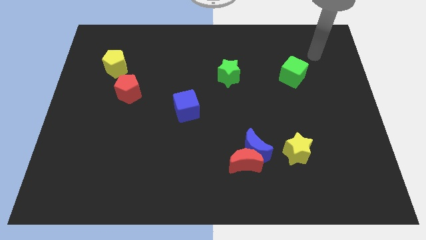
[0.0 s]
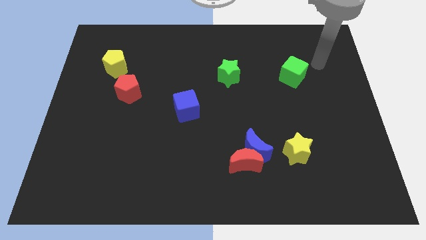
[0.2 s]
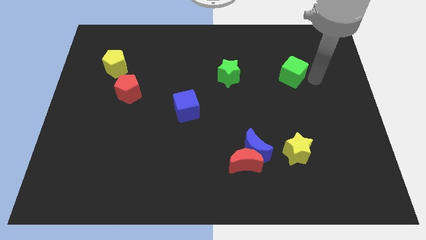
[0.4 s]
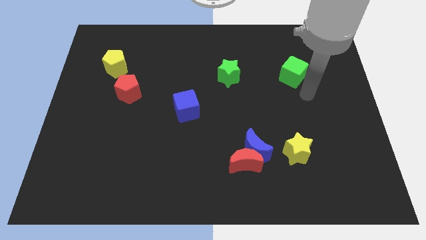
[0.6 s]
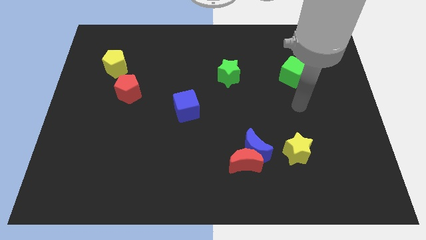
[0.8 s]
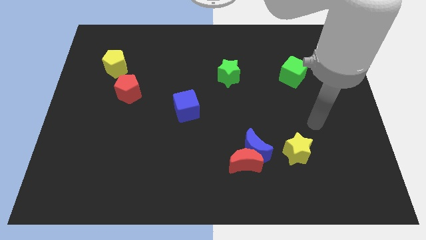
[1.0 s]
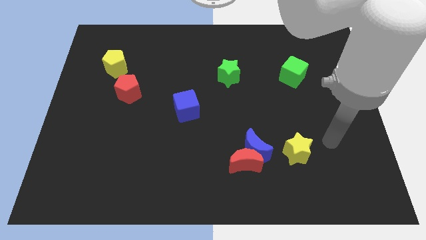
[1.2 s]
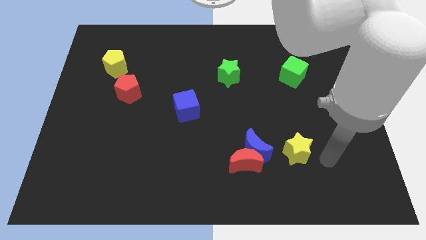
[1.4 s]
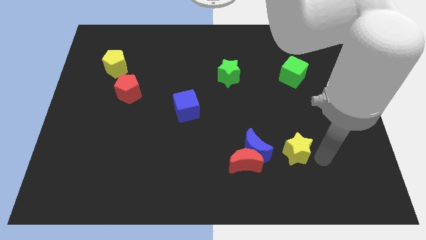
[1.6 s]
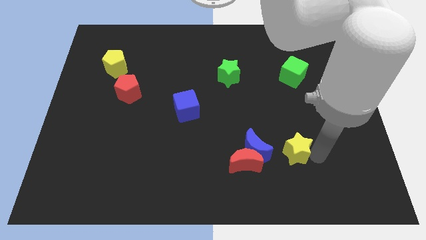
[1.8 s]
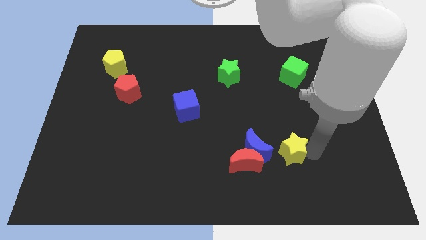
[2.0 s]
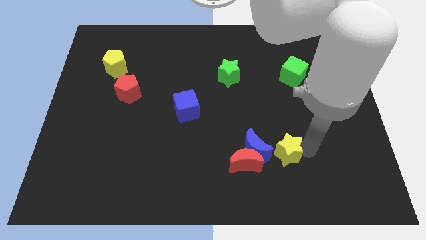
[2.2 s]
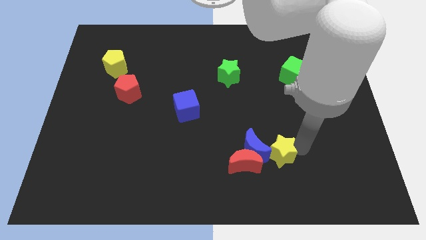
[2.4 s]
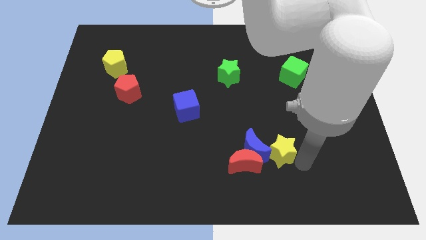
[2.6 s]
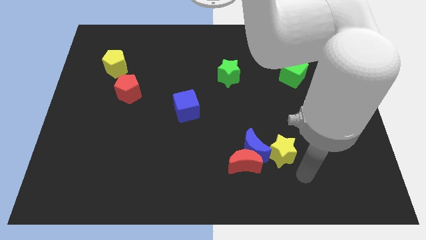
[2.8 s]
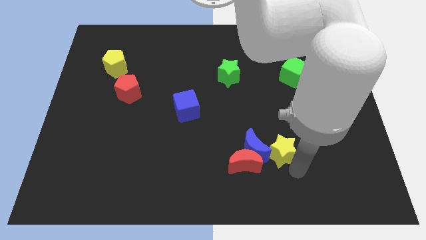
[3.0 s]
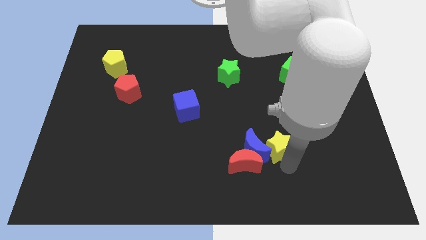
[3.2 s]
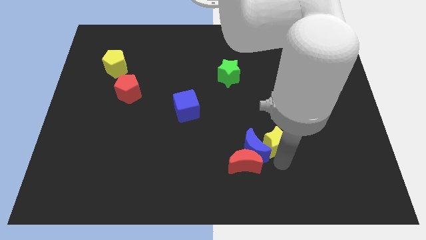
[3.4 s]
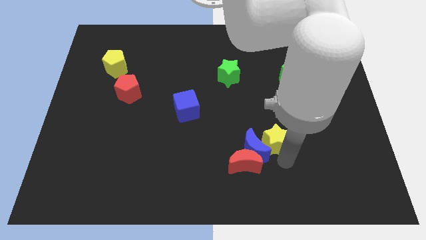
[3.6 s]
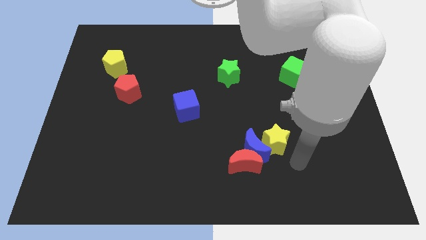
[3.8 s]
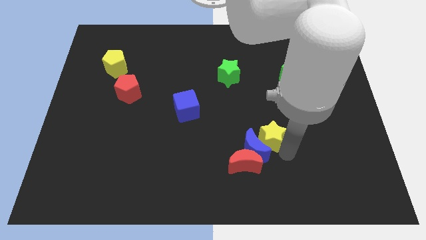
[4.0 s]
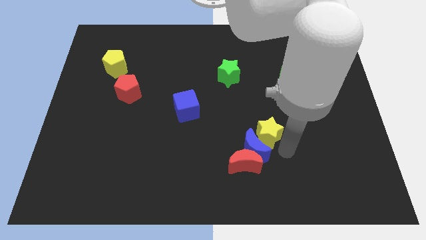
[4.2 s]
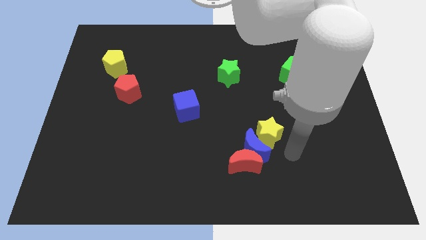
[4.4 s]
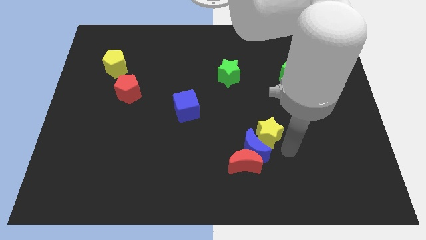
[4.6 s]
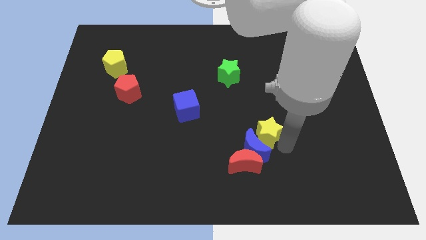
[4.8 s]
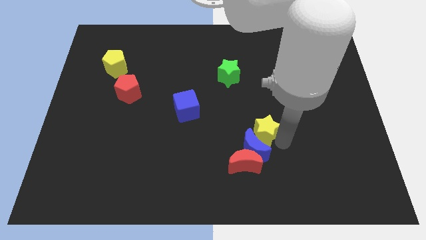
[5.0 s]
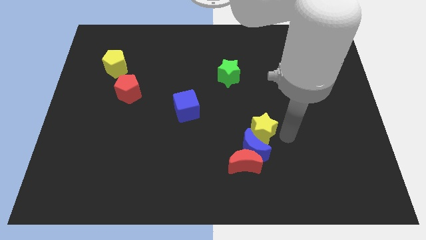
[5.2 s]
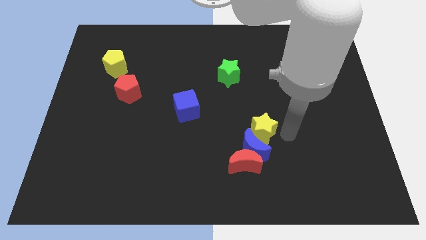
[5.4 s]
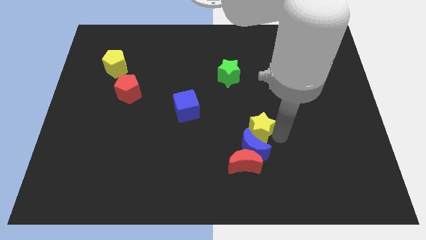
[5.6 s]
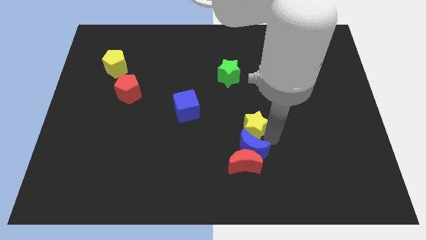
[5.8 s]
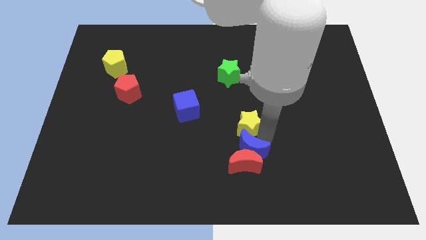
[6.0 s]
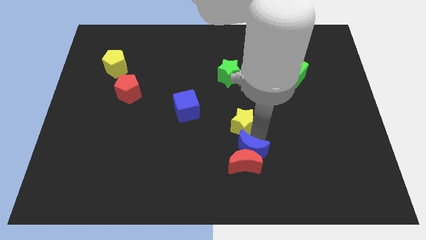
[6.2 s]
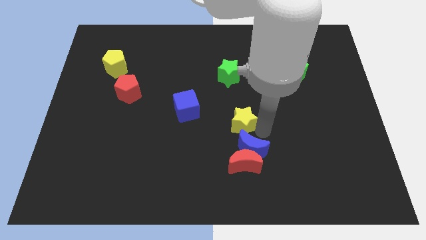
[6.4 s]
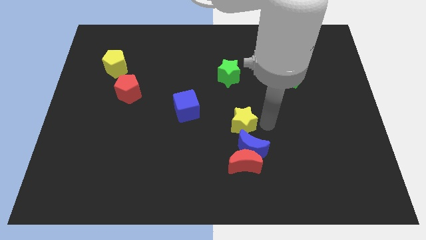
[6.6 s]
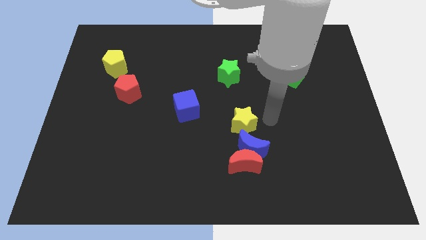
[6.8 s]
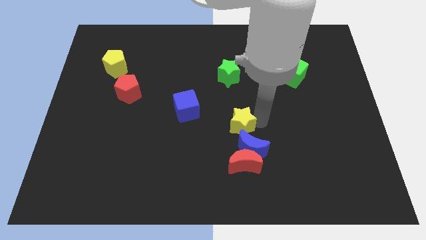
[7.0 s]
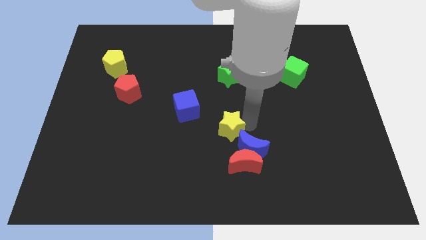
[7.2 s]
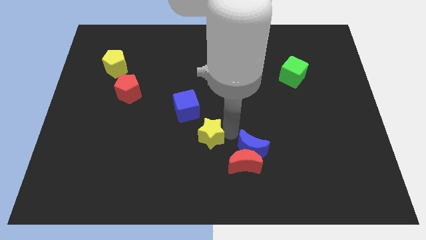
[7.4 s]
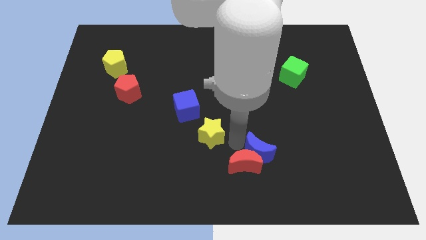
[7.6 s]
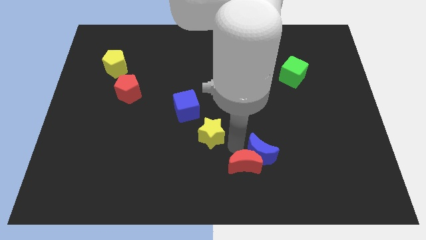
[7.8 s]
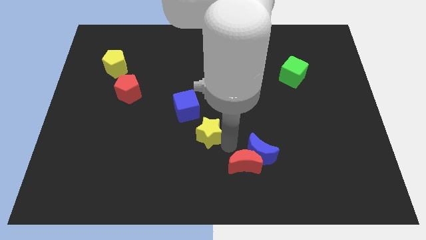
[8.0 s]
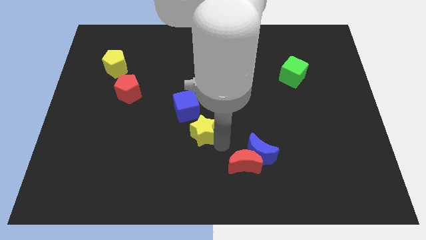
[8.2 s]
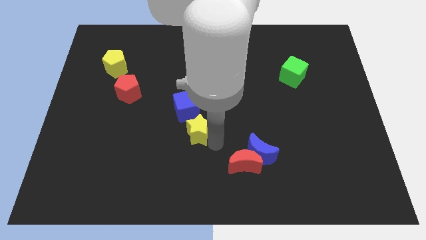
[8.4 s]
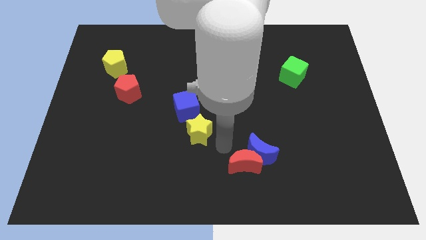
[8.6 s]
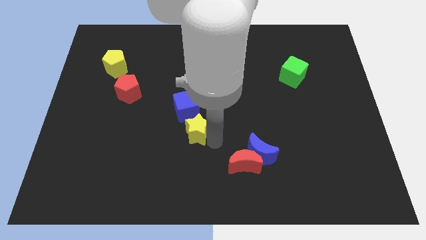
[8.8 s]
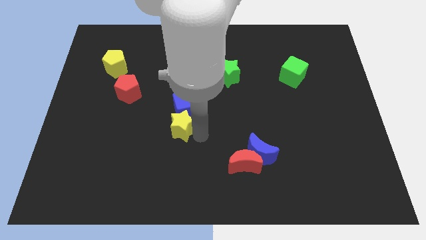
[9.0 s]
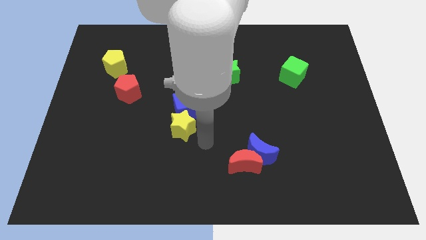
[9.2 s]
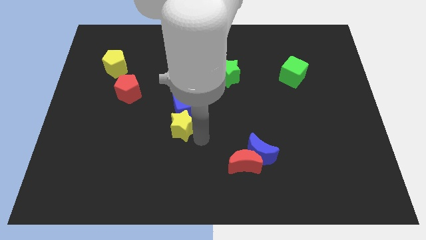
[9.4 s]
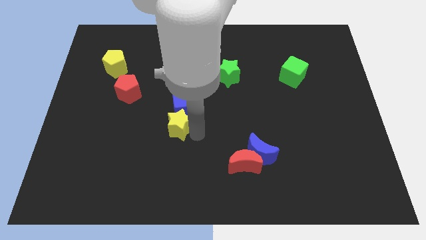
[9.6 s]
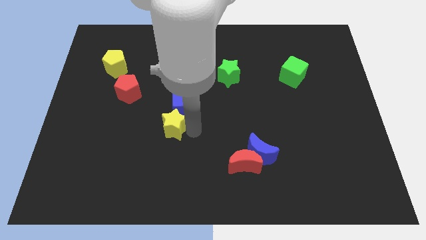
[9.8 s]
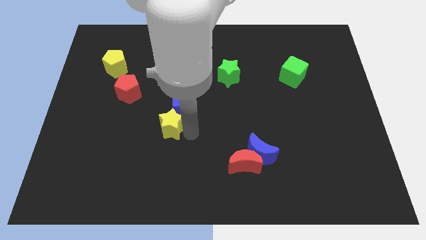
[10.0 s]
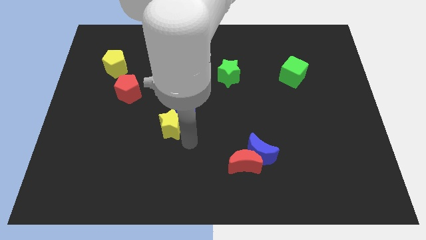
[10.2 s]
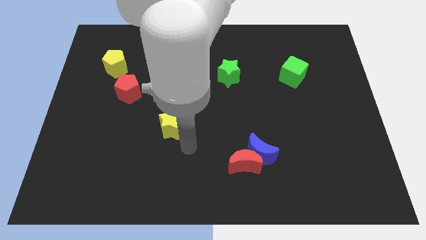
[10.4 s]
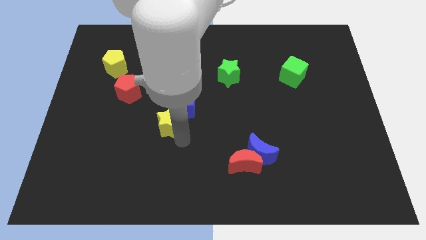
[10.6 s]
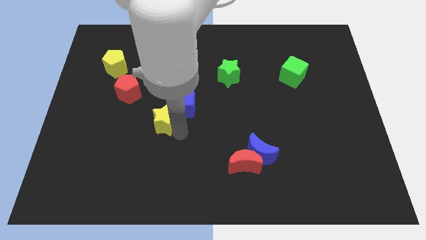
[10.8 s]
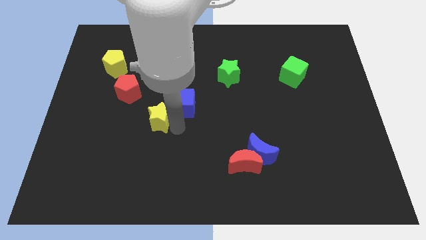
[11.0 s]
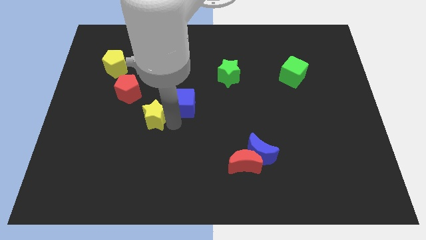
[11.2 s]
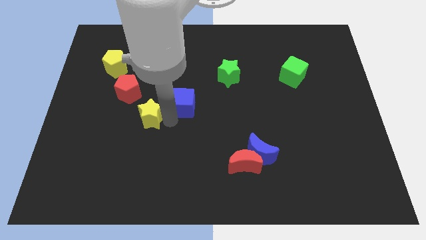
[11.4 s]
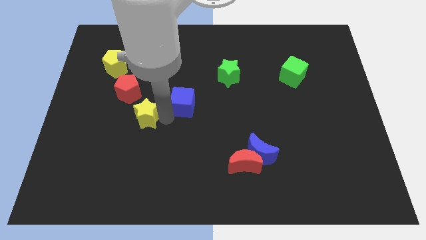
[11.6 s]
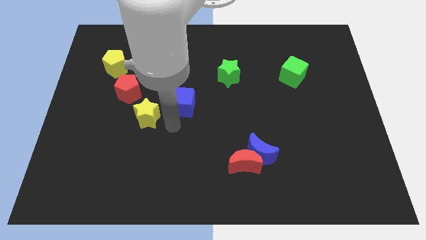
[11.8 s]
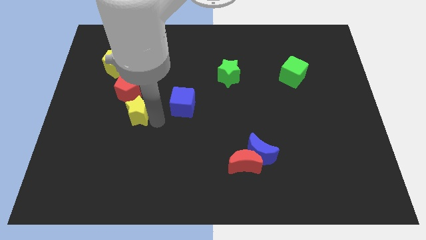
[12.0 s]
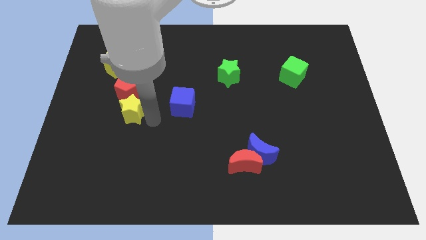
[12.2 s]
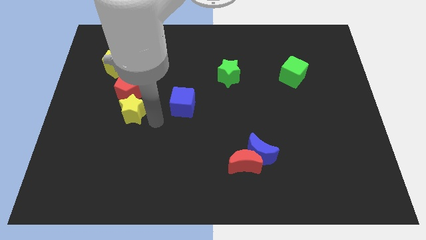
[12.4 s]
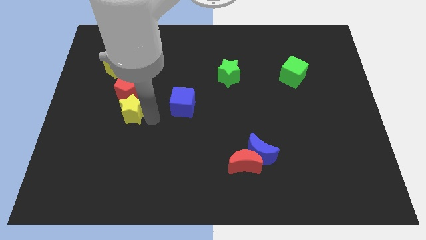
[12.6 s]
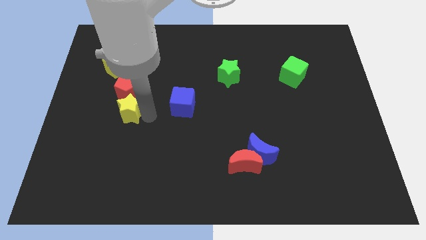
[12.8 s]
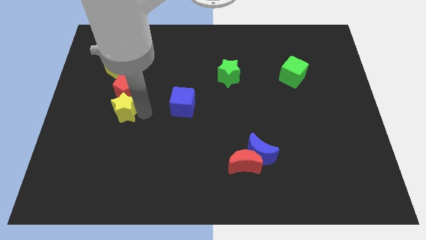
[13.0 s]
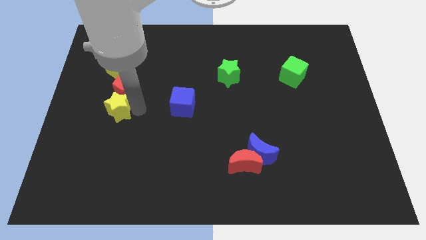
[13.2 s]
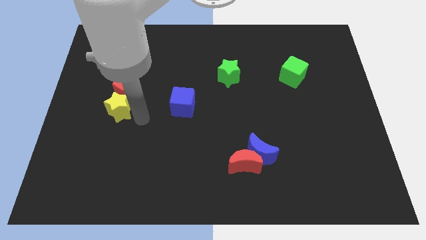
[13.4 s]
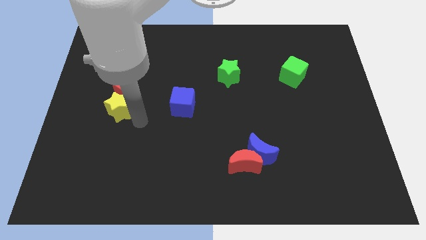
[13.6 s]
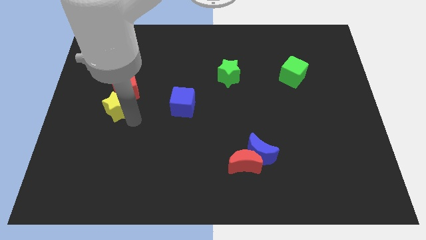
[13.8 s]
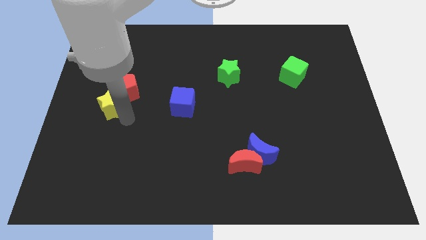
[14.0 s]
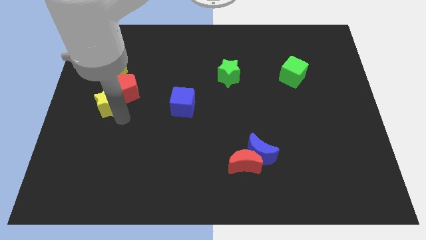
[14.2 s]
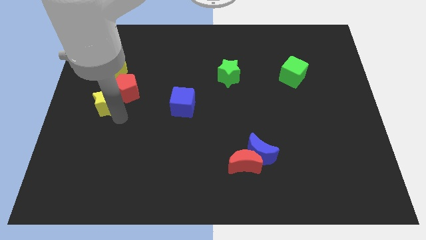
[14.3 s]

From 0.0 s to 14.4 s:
push the yellow star to the left side of the board
